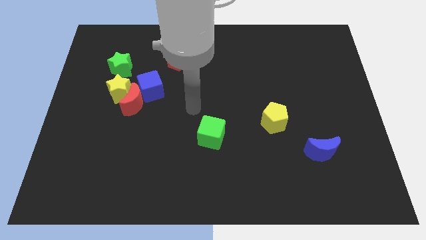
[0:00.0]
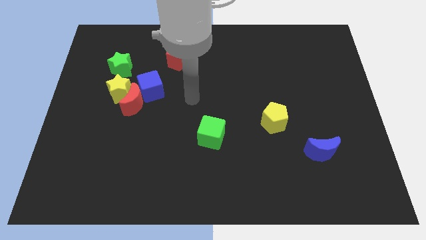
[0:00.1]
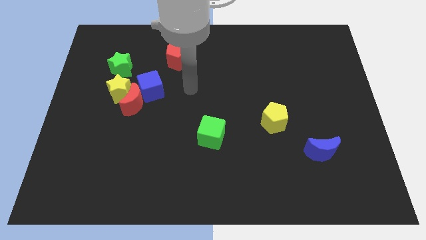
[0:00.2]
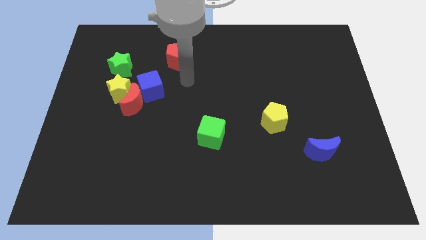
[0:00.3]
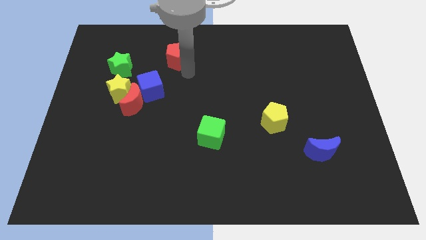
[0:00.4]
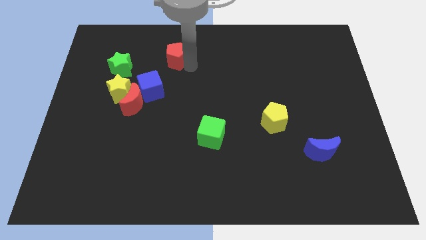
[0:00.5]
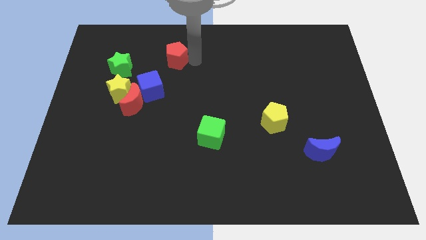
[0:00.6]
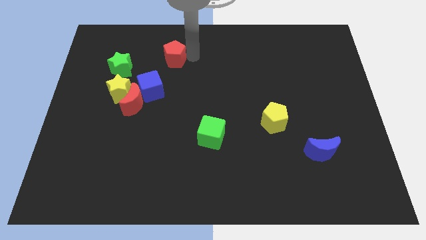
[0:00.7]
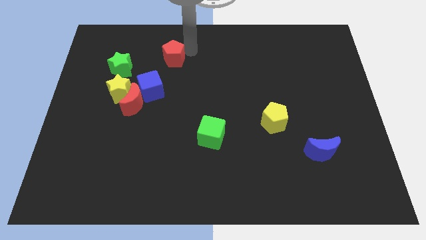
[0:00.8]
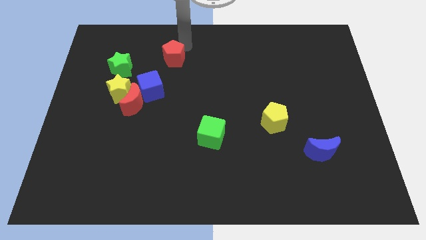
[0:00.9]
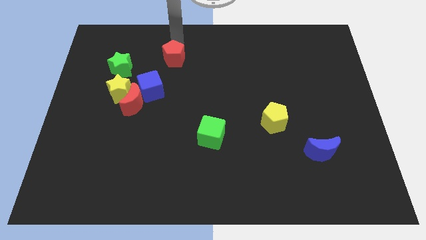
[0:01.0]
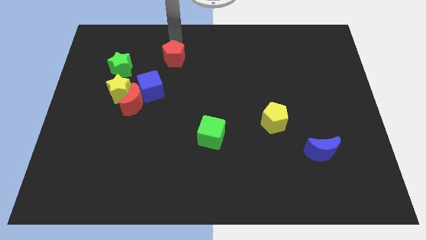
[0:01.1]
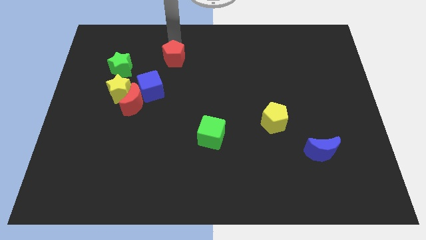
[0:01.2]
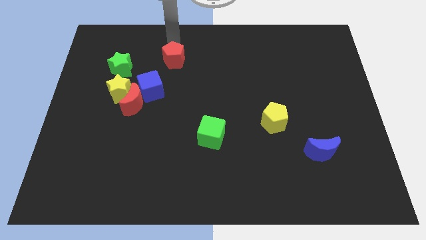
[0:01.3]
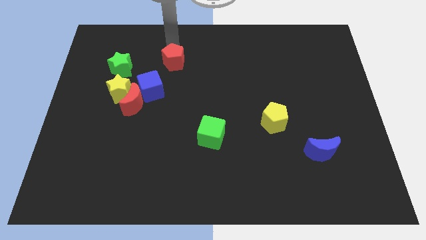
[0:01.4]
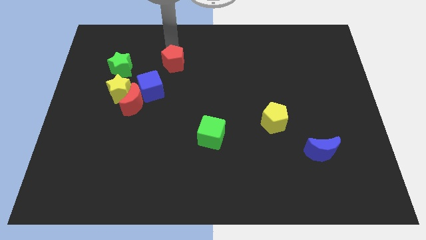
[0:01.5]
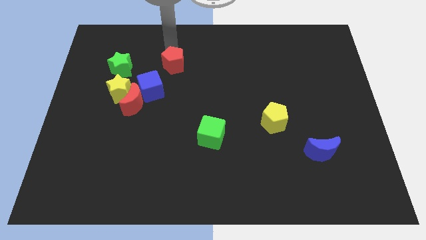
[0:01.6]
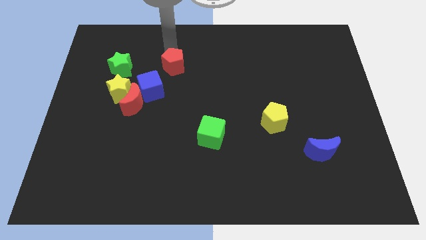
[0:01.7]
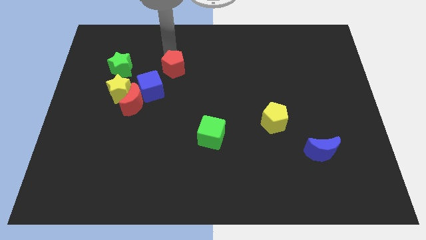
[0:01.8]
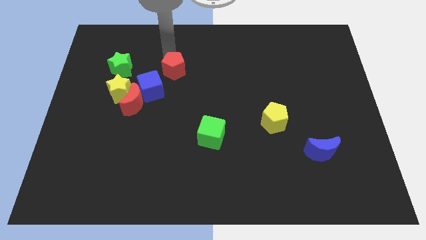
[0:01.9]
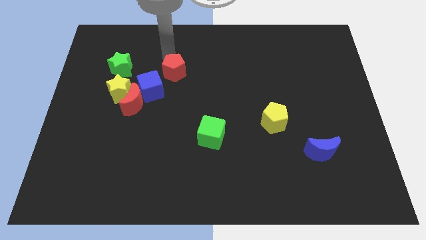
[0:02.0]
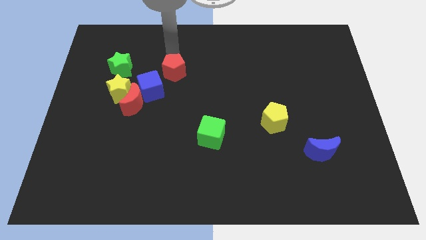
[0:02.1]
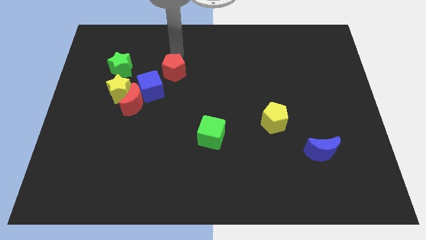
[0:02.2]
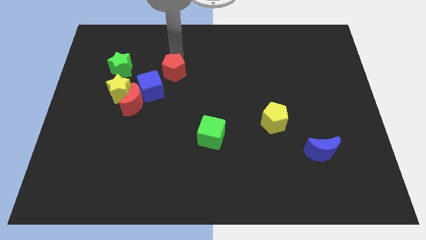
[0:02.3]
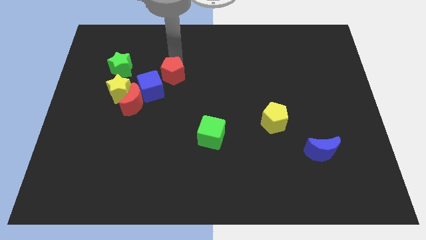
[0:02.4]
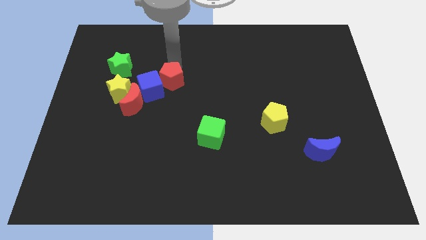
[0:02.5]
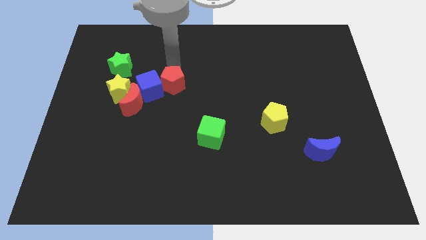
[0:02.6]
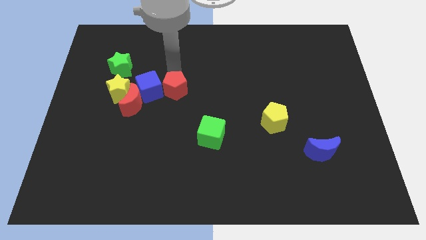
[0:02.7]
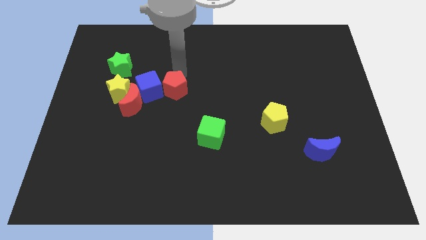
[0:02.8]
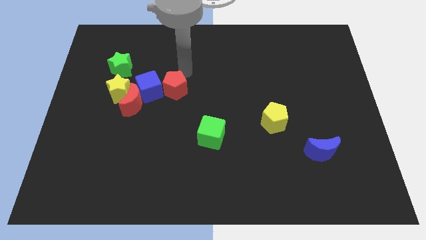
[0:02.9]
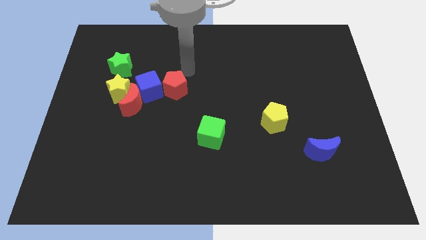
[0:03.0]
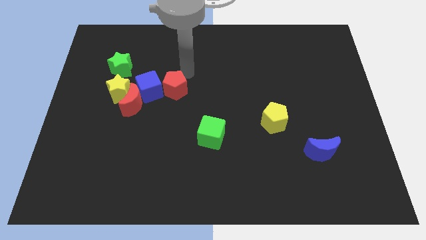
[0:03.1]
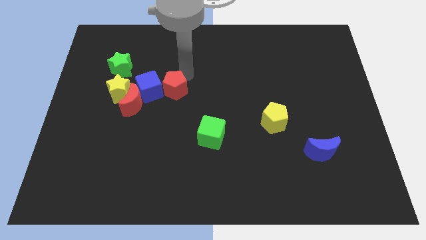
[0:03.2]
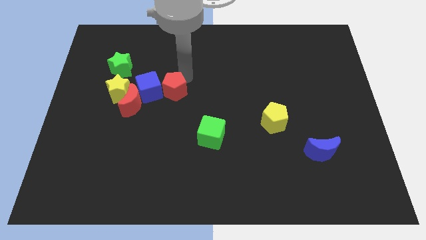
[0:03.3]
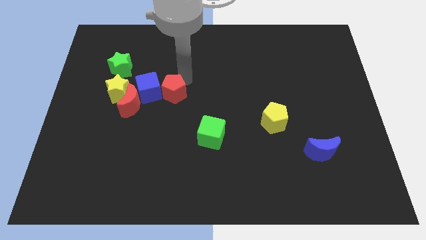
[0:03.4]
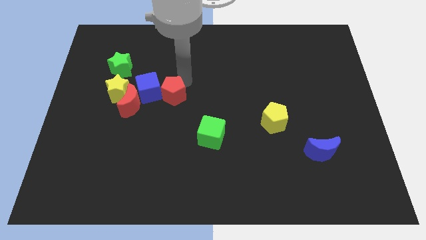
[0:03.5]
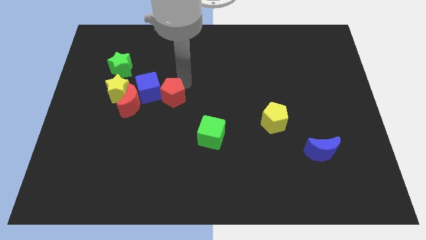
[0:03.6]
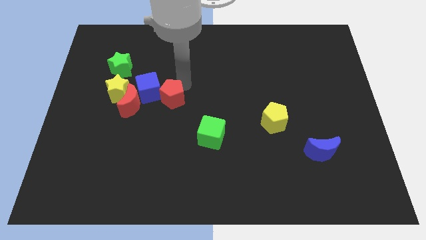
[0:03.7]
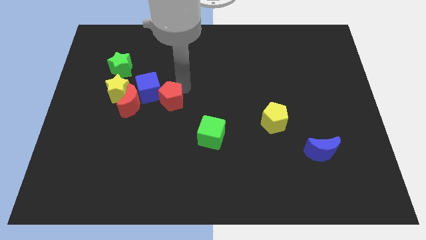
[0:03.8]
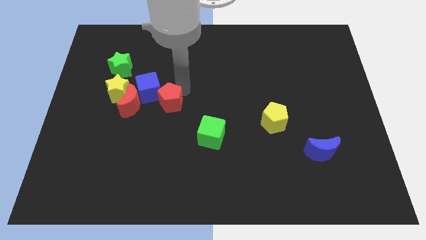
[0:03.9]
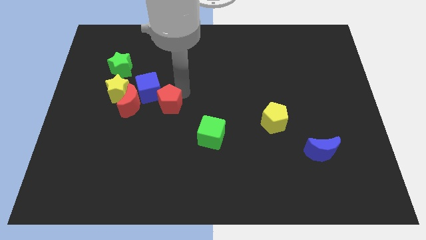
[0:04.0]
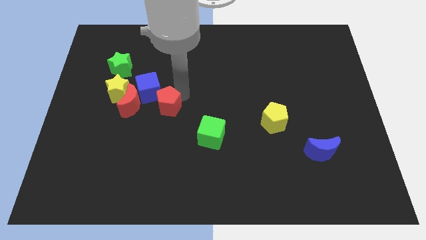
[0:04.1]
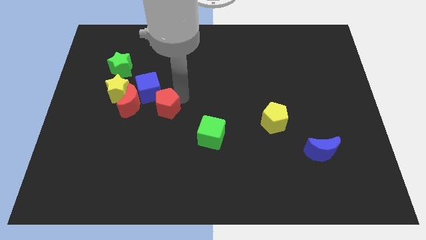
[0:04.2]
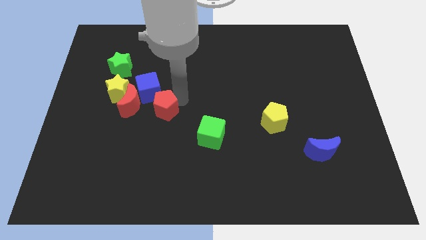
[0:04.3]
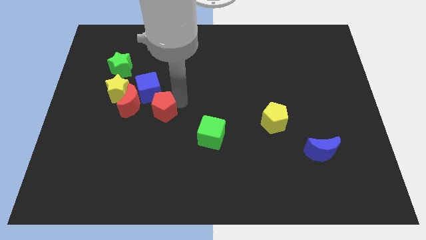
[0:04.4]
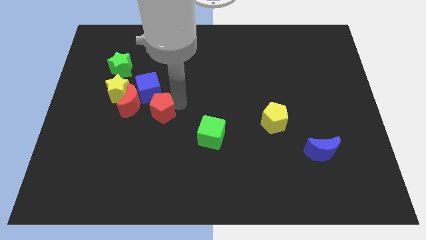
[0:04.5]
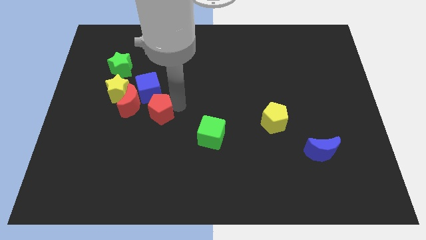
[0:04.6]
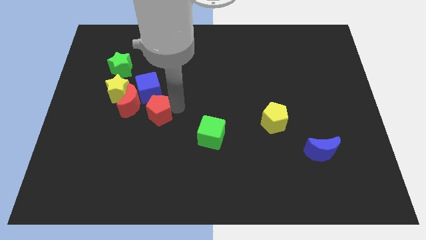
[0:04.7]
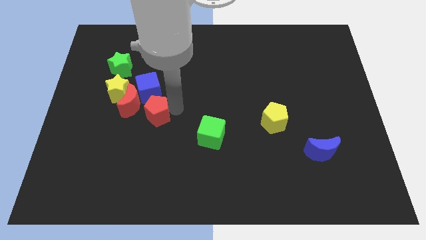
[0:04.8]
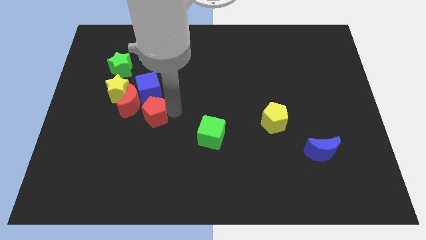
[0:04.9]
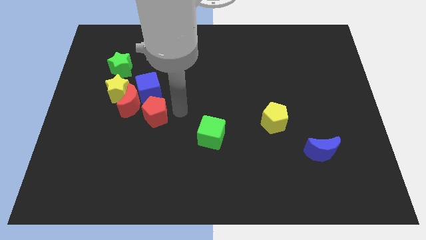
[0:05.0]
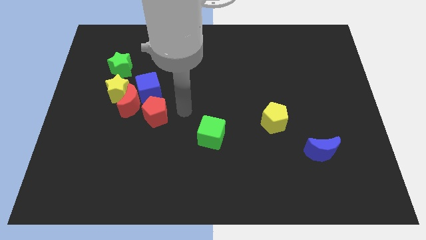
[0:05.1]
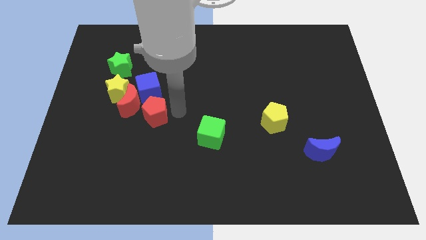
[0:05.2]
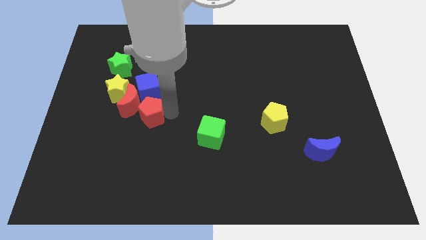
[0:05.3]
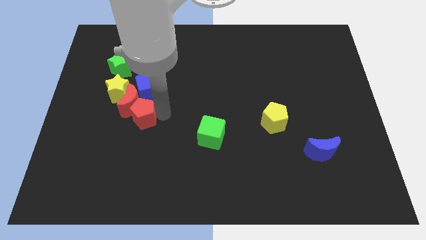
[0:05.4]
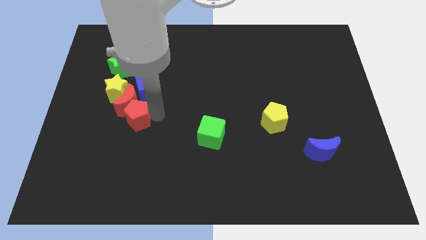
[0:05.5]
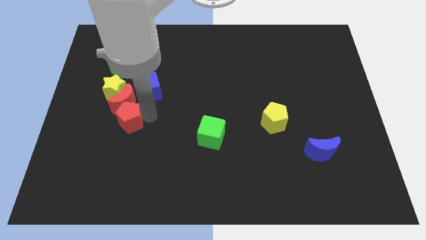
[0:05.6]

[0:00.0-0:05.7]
put the red pentagon below the yellow star

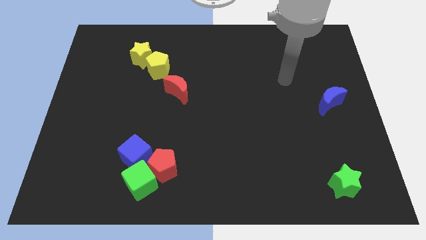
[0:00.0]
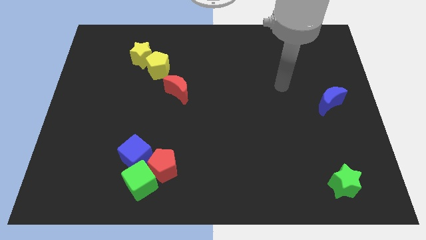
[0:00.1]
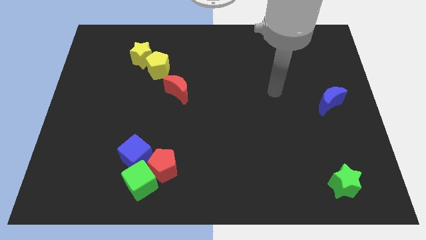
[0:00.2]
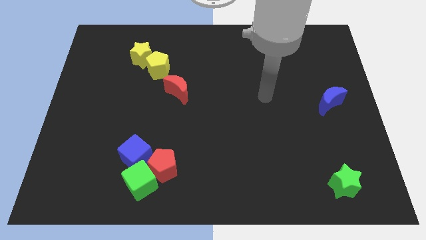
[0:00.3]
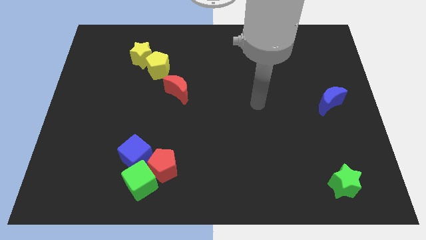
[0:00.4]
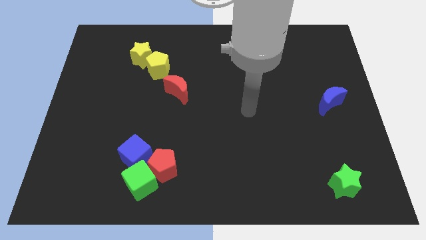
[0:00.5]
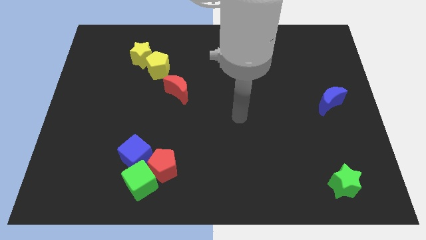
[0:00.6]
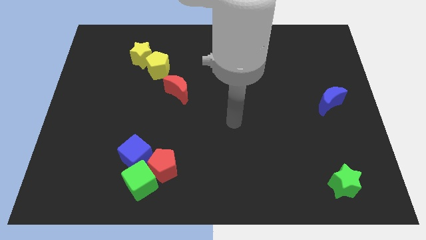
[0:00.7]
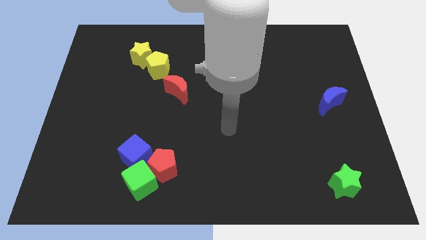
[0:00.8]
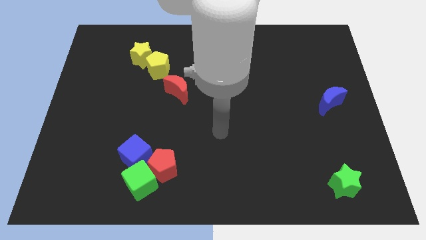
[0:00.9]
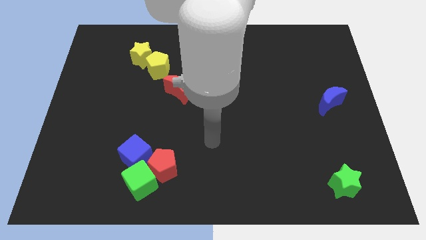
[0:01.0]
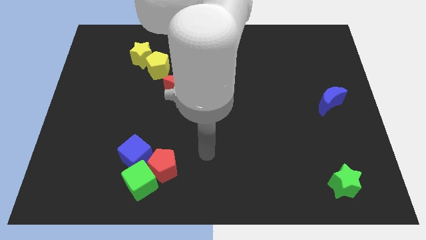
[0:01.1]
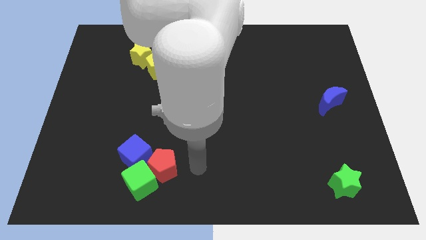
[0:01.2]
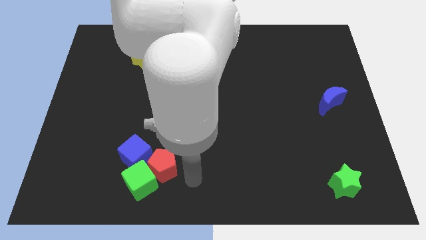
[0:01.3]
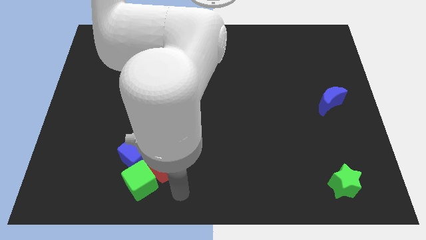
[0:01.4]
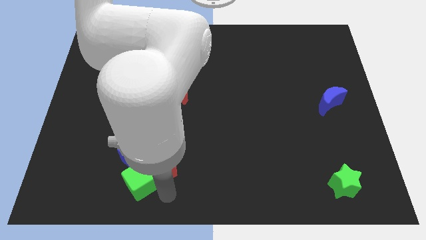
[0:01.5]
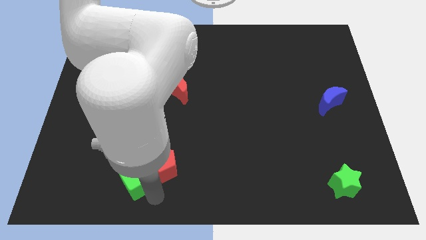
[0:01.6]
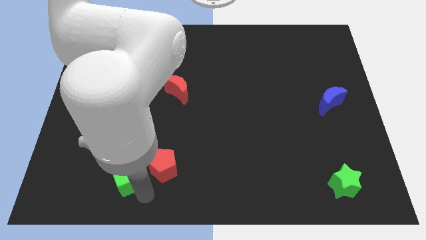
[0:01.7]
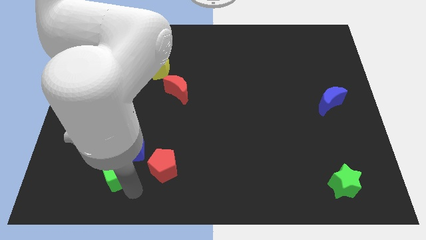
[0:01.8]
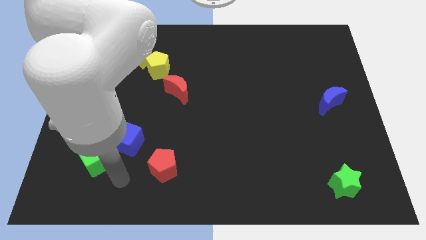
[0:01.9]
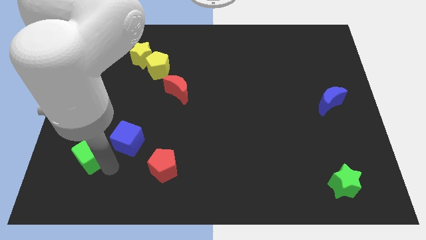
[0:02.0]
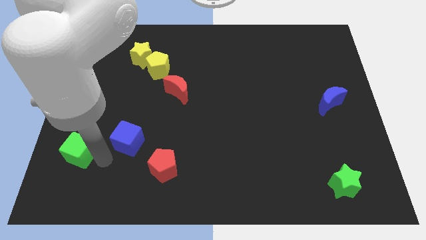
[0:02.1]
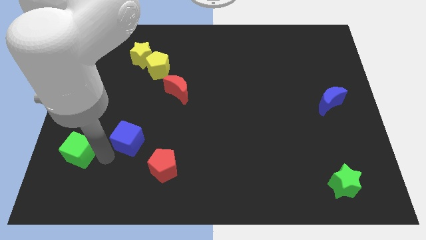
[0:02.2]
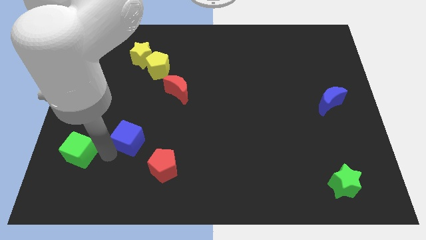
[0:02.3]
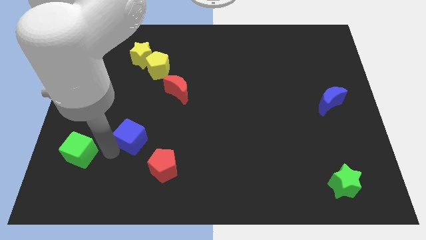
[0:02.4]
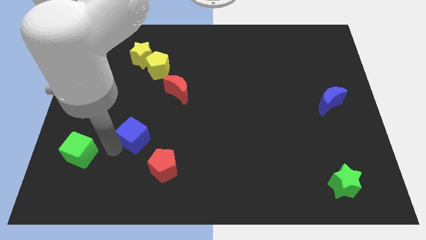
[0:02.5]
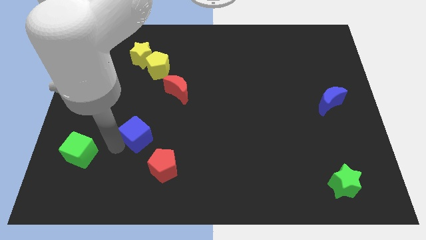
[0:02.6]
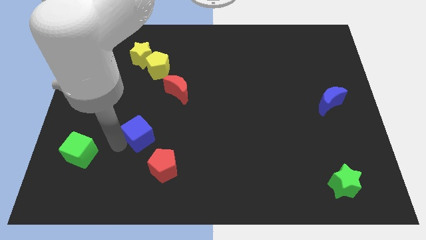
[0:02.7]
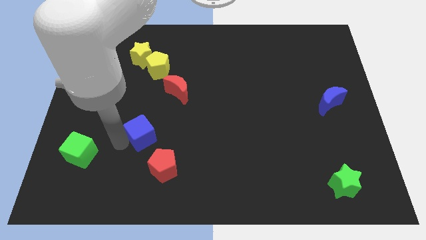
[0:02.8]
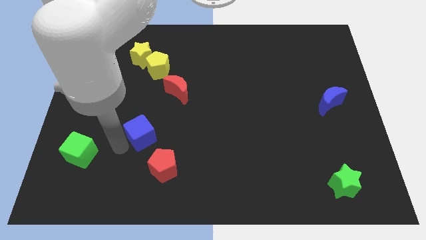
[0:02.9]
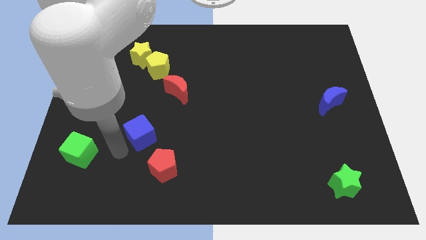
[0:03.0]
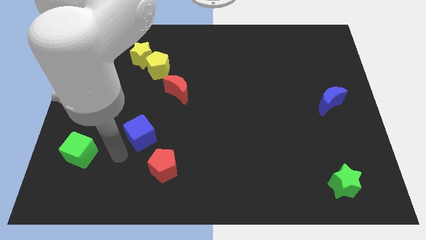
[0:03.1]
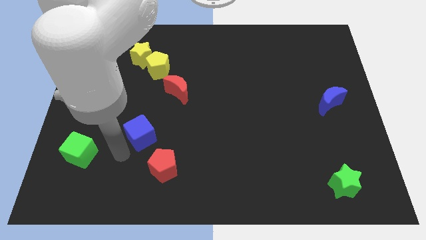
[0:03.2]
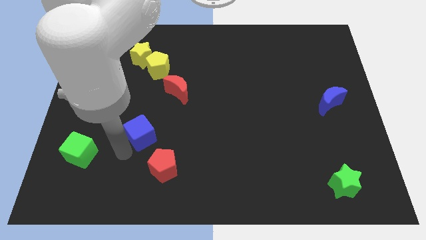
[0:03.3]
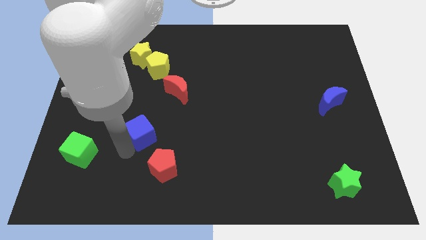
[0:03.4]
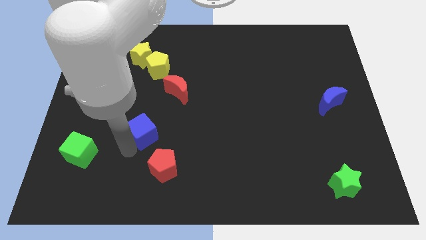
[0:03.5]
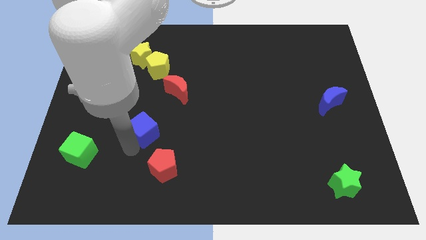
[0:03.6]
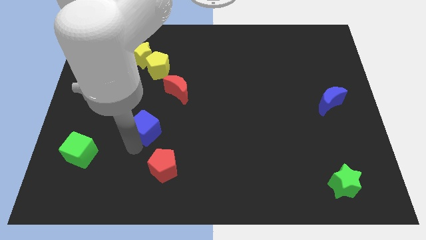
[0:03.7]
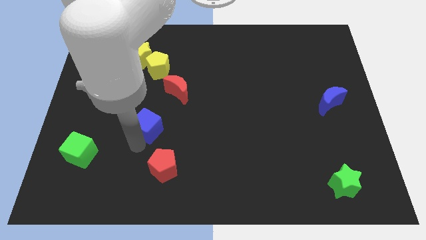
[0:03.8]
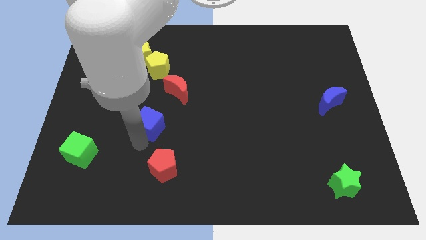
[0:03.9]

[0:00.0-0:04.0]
move the blue cube to the bottom left of the red moon
